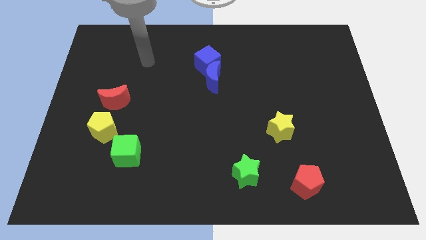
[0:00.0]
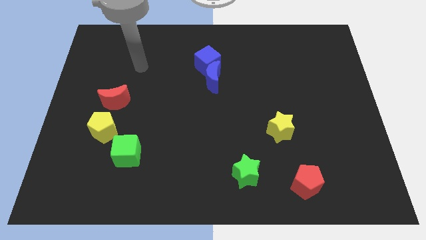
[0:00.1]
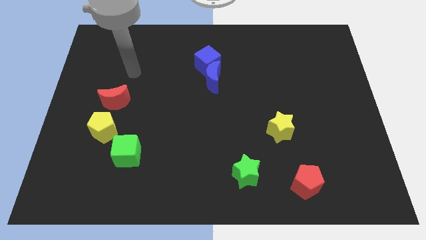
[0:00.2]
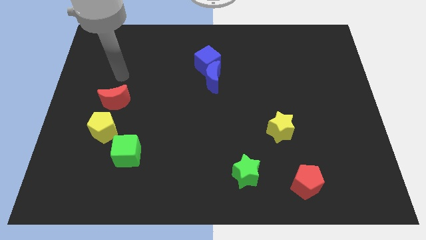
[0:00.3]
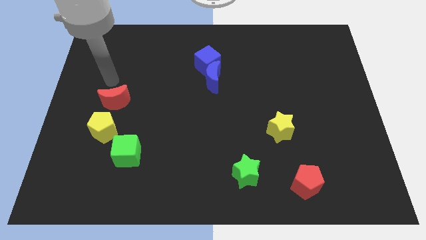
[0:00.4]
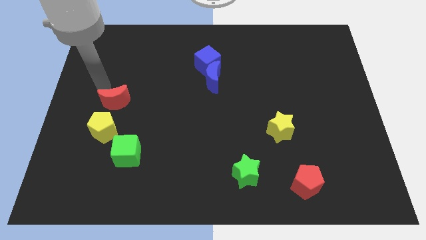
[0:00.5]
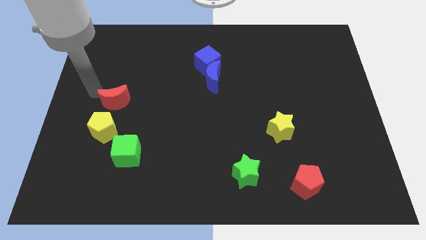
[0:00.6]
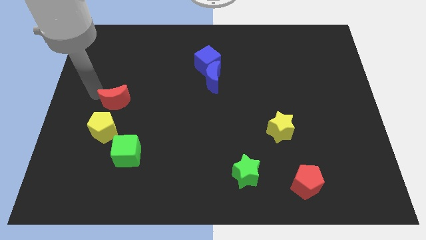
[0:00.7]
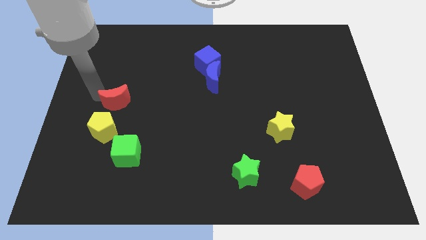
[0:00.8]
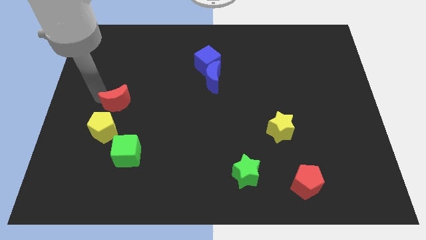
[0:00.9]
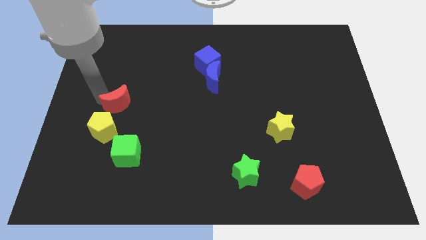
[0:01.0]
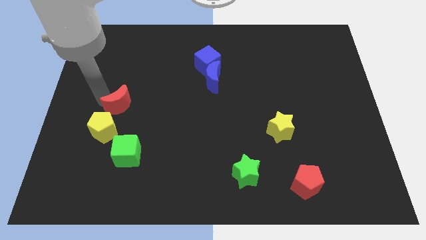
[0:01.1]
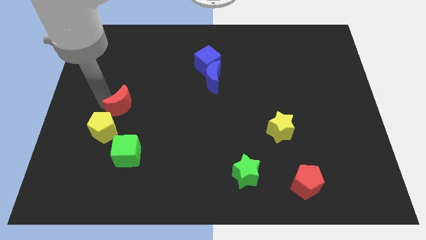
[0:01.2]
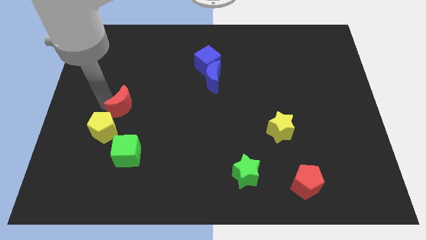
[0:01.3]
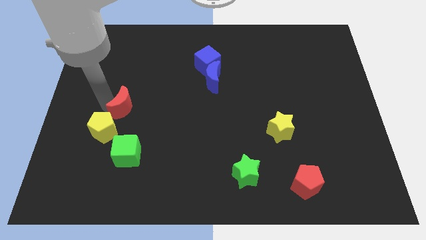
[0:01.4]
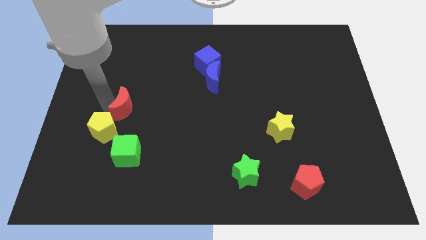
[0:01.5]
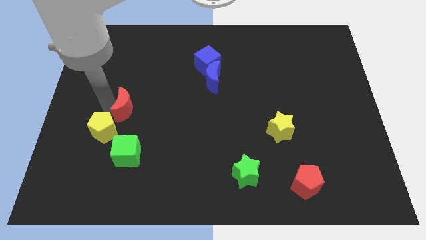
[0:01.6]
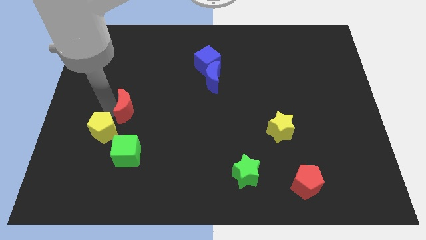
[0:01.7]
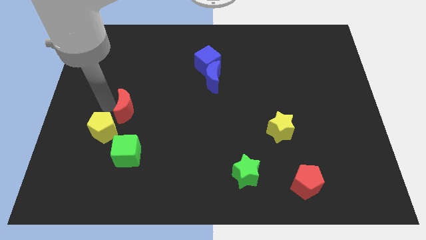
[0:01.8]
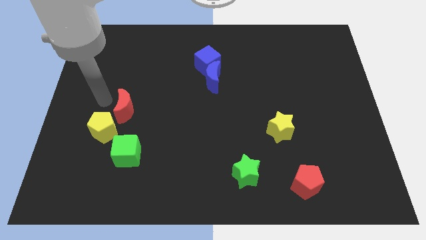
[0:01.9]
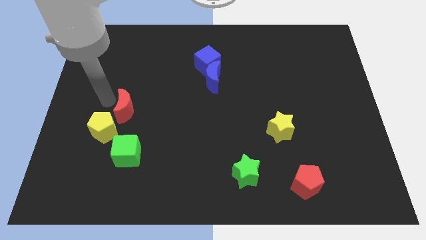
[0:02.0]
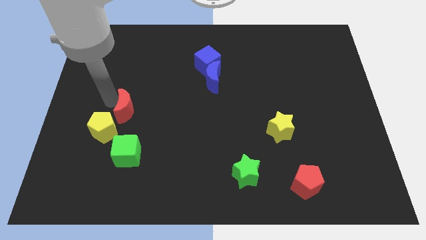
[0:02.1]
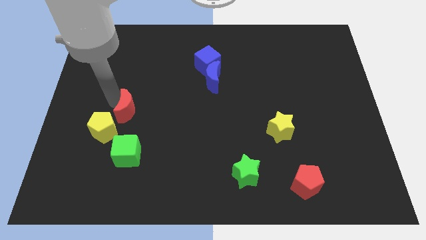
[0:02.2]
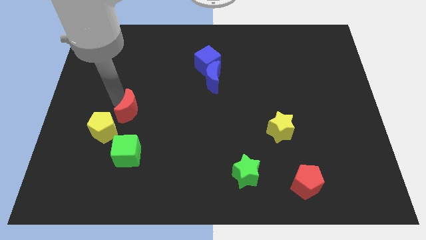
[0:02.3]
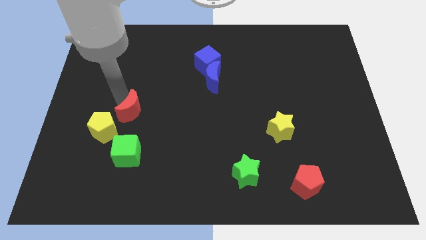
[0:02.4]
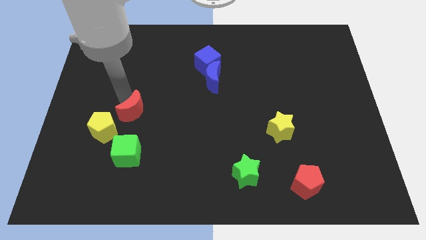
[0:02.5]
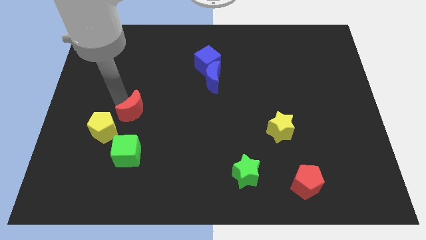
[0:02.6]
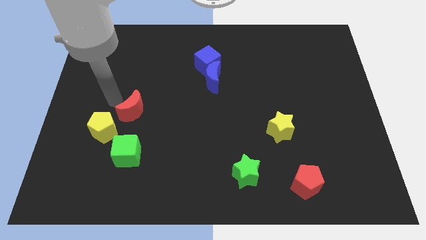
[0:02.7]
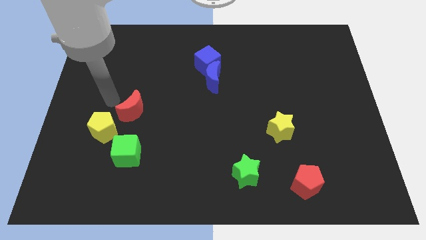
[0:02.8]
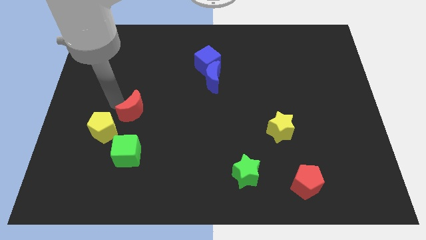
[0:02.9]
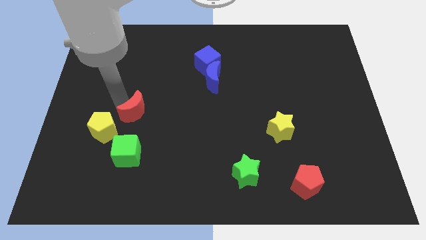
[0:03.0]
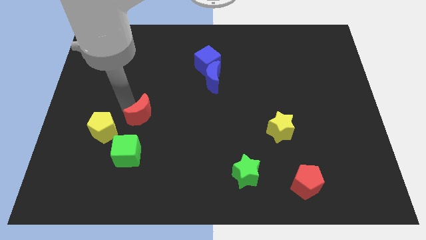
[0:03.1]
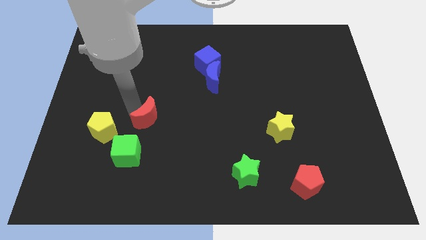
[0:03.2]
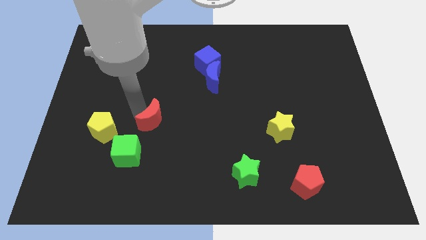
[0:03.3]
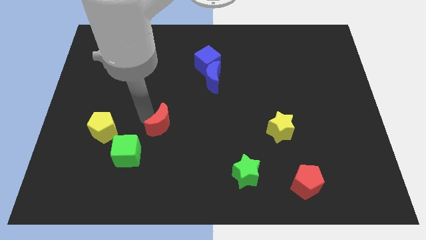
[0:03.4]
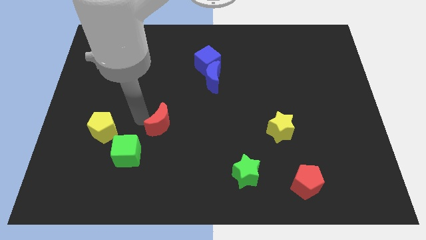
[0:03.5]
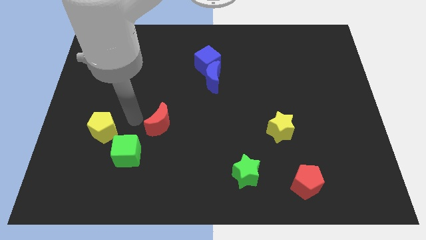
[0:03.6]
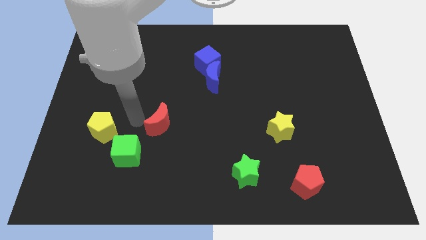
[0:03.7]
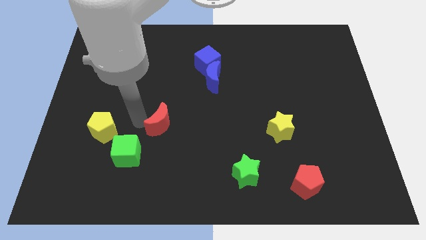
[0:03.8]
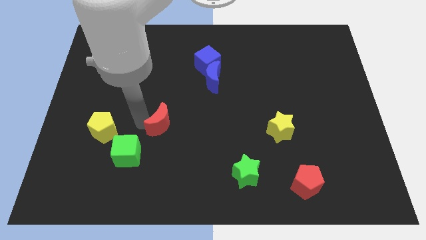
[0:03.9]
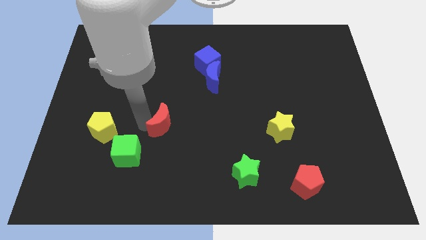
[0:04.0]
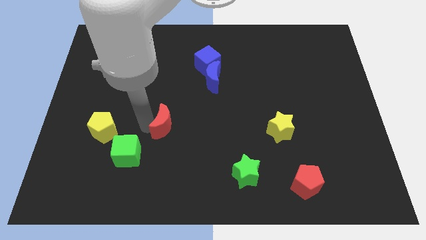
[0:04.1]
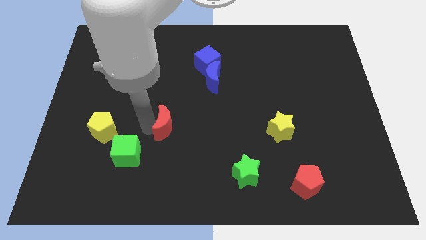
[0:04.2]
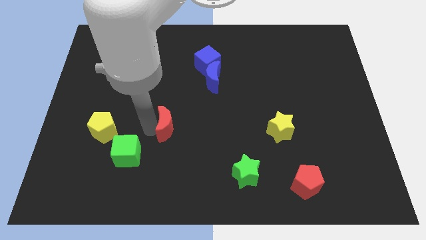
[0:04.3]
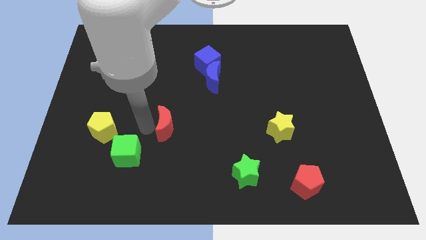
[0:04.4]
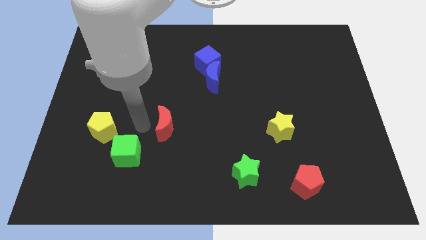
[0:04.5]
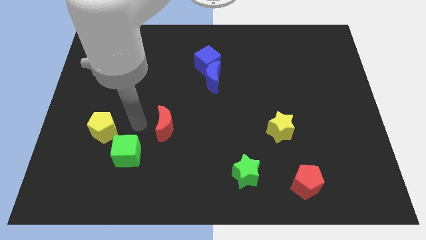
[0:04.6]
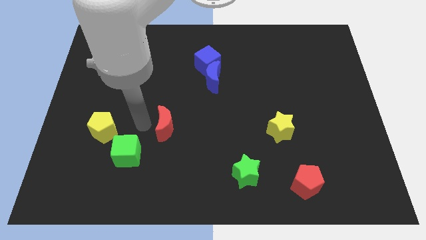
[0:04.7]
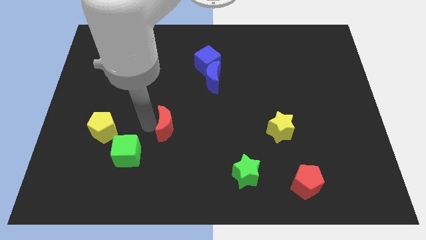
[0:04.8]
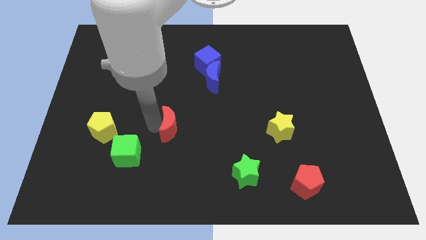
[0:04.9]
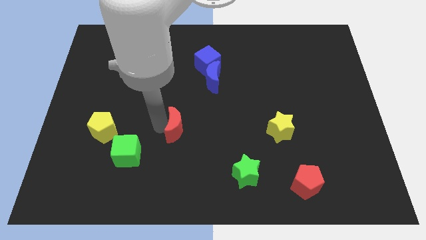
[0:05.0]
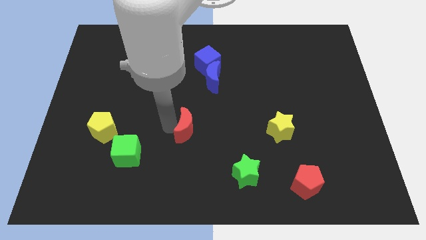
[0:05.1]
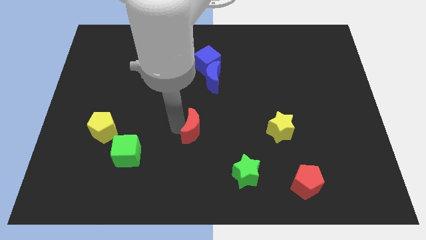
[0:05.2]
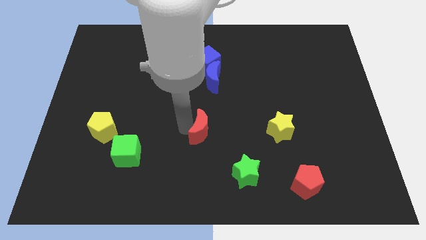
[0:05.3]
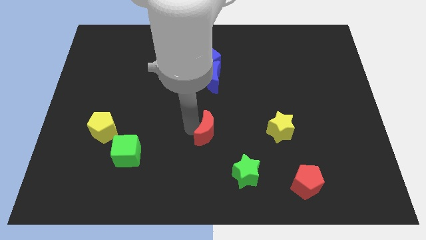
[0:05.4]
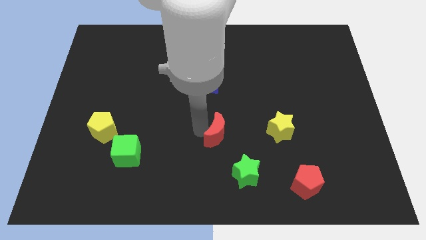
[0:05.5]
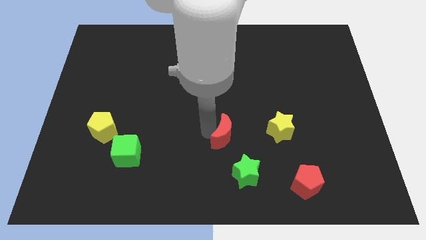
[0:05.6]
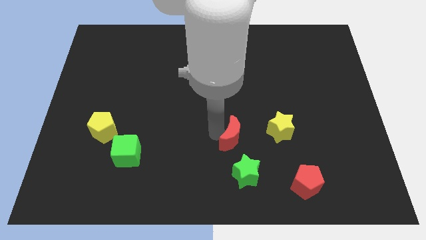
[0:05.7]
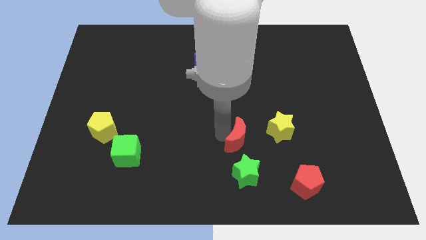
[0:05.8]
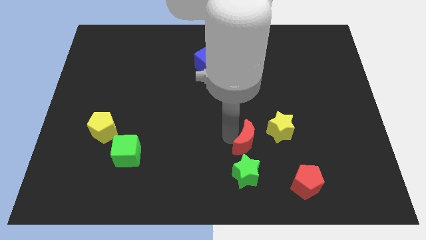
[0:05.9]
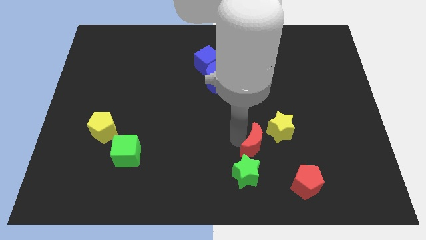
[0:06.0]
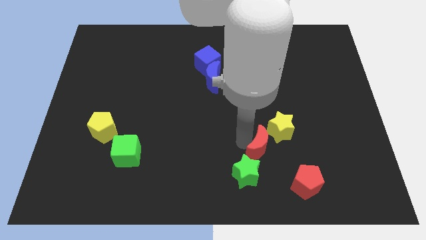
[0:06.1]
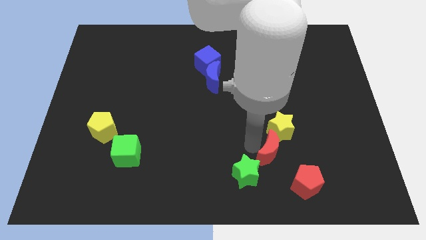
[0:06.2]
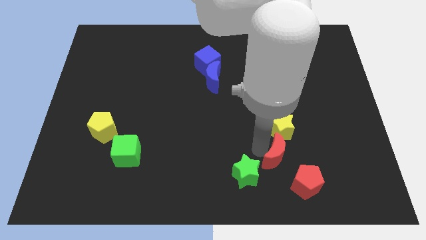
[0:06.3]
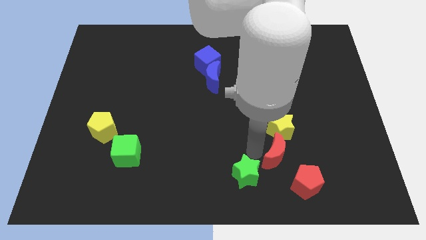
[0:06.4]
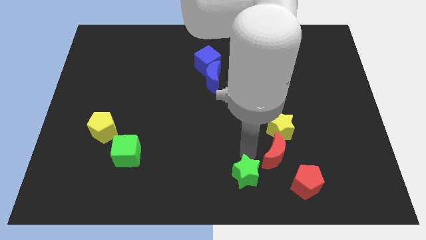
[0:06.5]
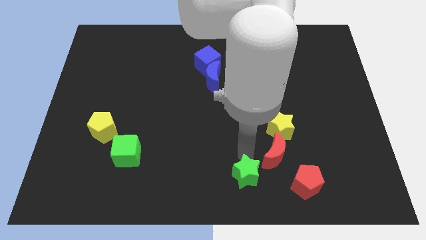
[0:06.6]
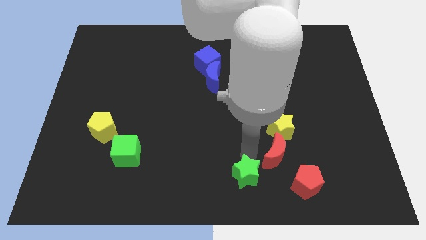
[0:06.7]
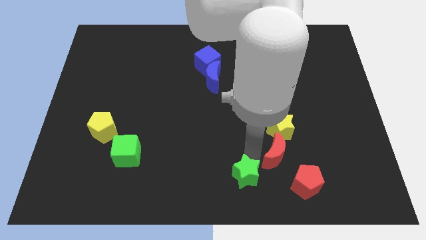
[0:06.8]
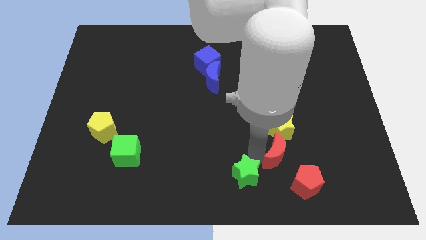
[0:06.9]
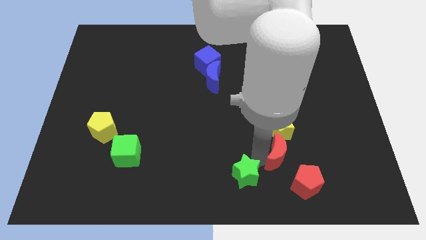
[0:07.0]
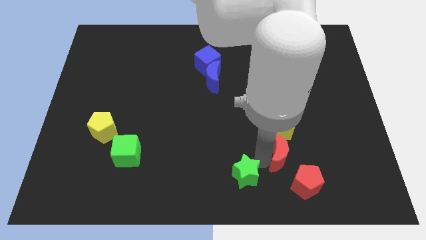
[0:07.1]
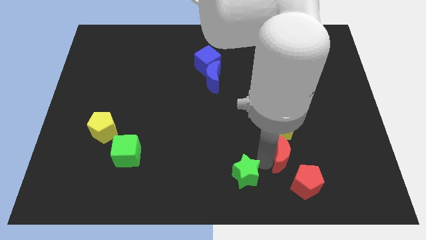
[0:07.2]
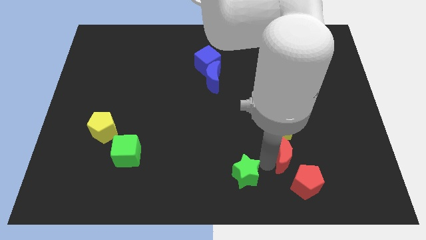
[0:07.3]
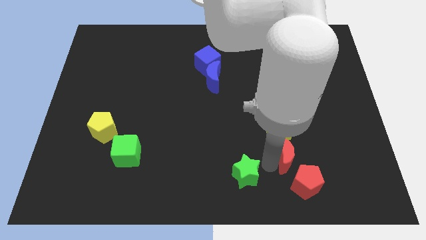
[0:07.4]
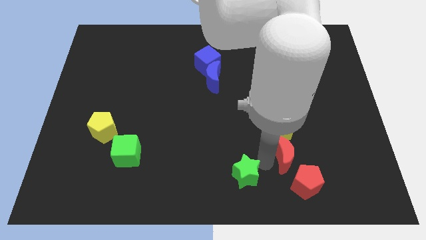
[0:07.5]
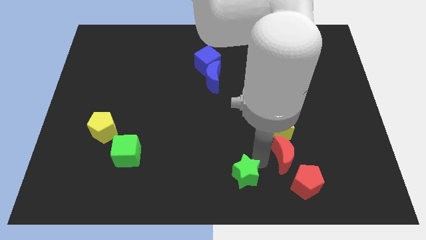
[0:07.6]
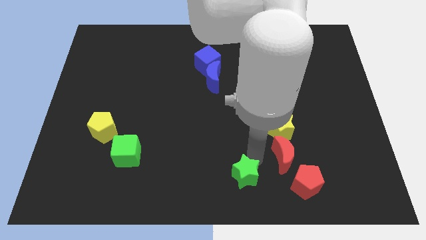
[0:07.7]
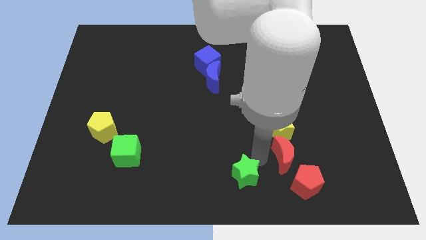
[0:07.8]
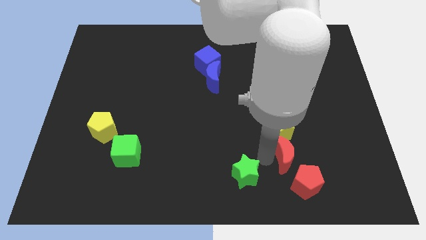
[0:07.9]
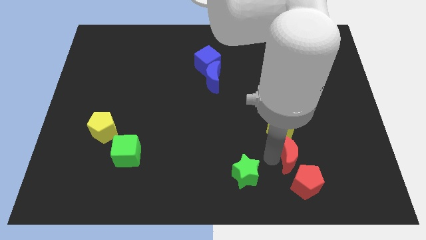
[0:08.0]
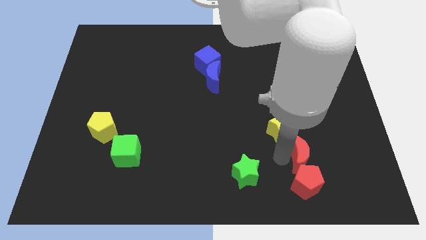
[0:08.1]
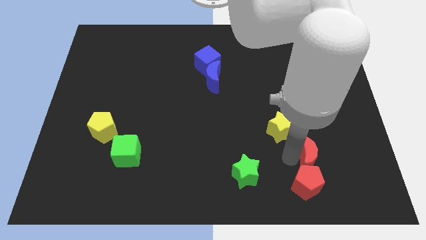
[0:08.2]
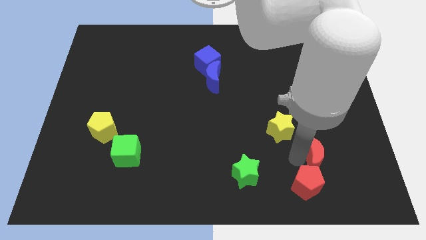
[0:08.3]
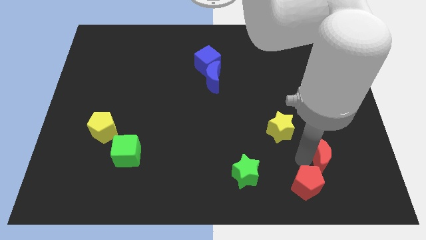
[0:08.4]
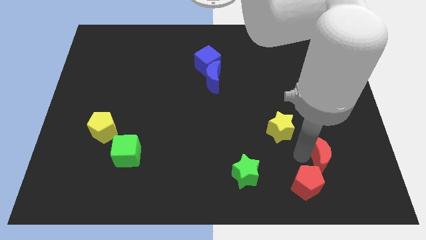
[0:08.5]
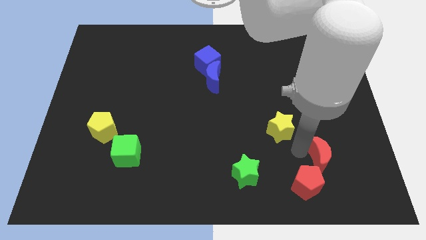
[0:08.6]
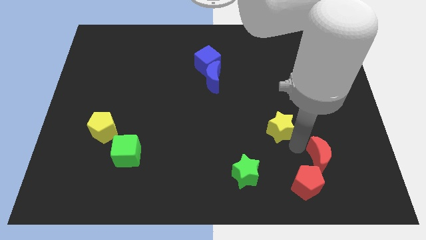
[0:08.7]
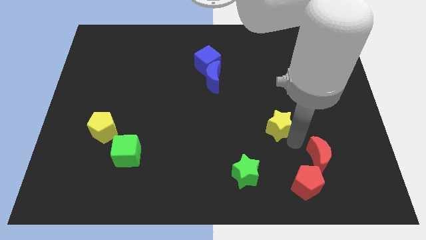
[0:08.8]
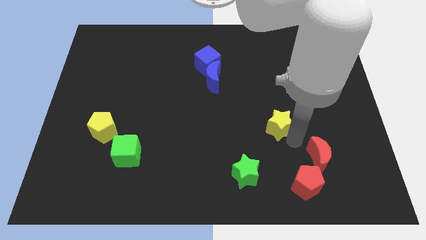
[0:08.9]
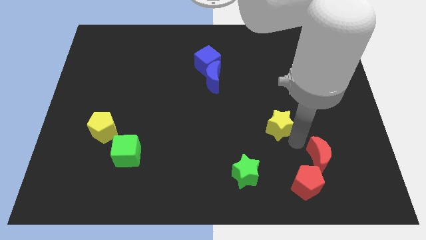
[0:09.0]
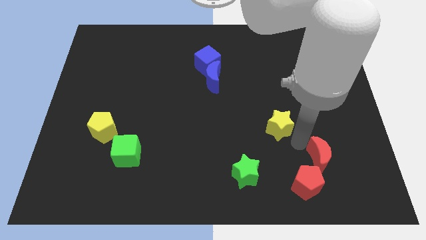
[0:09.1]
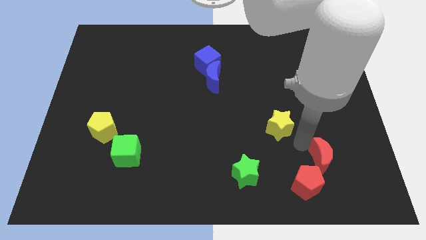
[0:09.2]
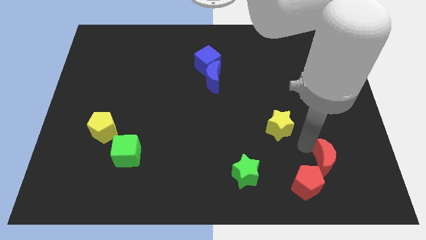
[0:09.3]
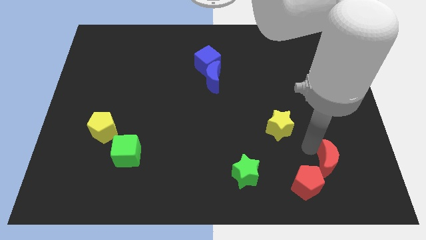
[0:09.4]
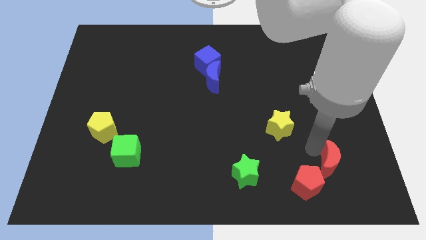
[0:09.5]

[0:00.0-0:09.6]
push the red moon to the right side of the red pentagon
